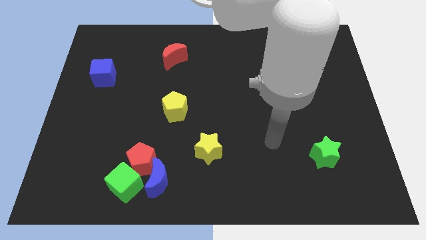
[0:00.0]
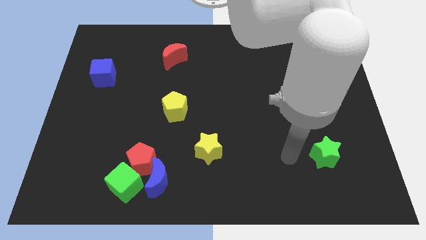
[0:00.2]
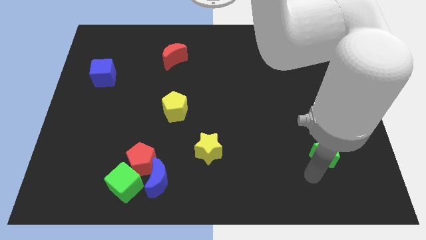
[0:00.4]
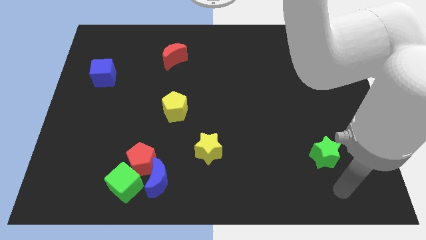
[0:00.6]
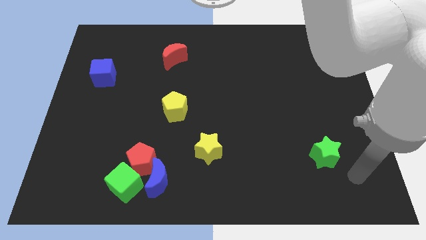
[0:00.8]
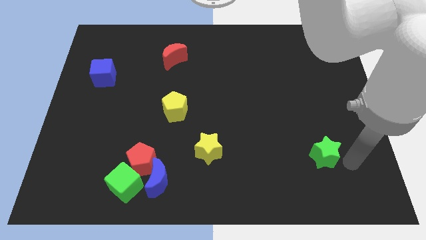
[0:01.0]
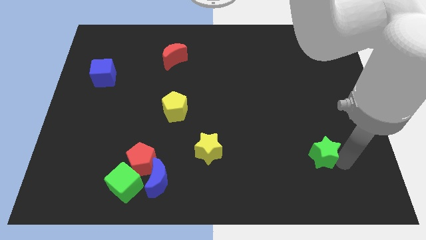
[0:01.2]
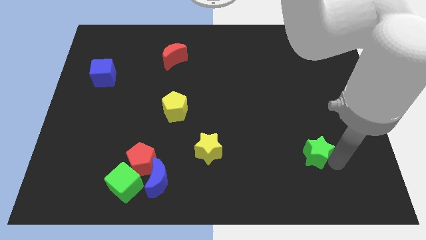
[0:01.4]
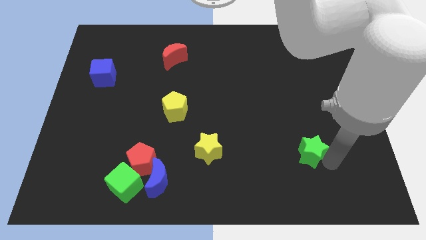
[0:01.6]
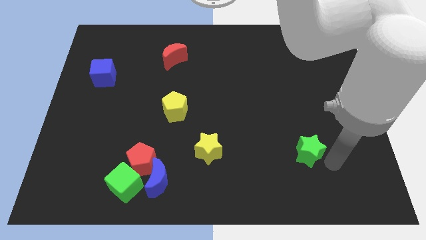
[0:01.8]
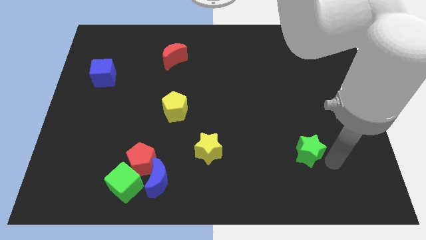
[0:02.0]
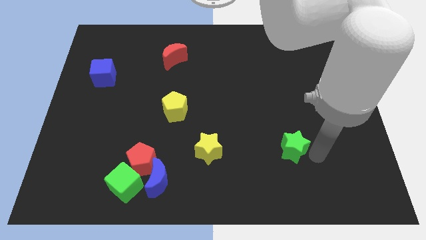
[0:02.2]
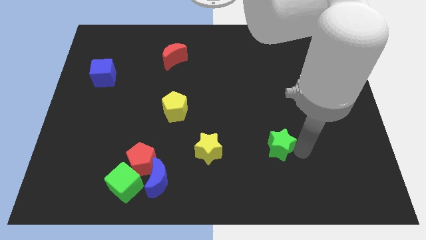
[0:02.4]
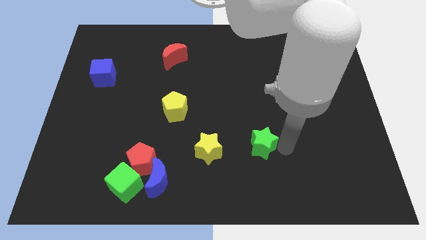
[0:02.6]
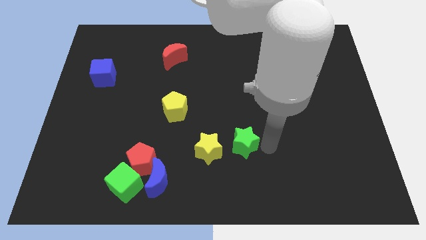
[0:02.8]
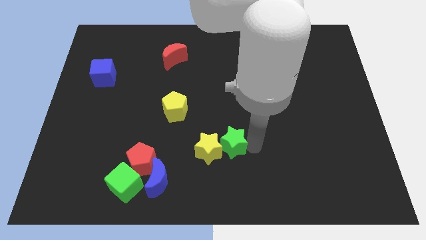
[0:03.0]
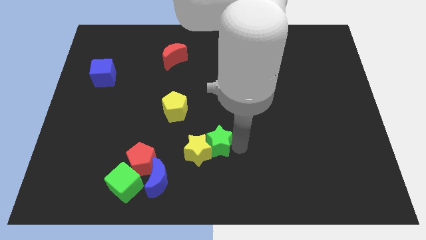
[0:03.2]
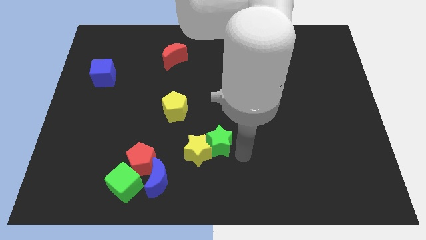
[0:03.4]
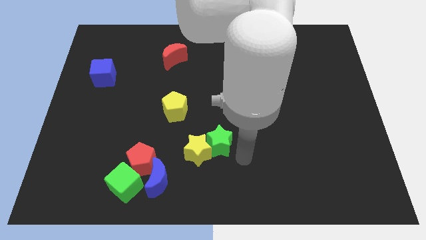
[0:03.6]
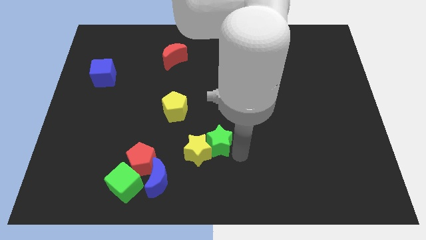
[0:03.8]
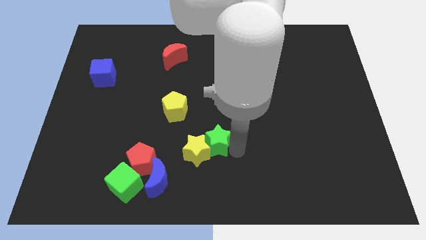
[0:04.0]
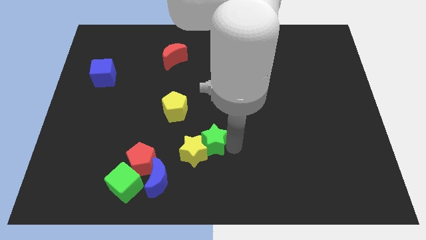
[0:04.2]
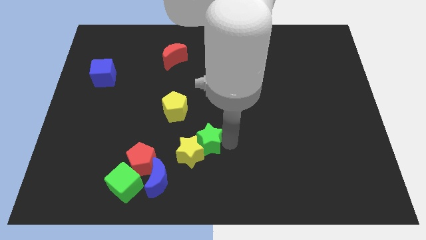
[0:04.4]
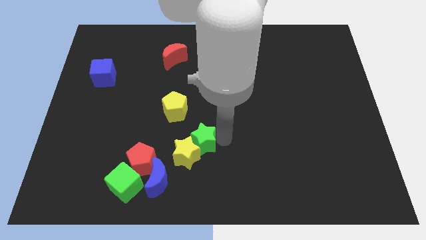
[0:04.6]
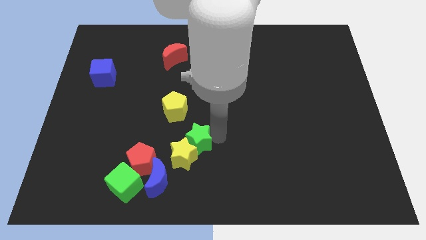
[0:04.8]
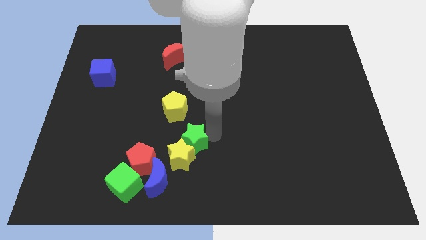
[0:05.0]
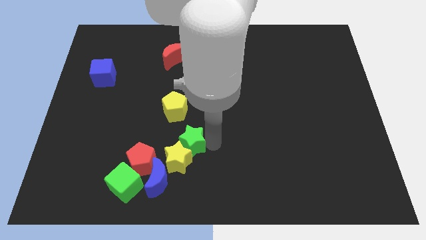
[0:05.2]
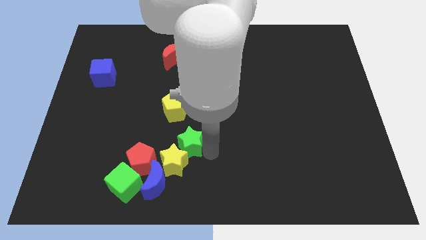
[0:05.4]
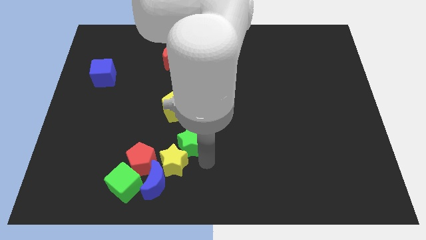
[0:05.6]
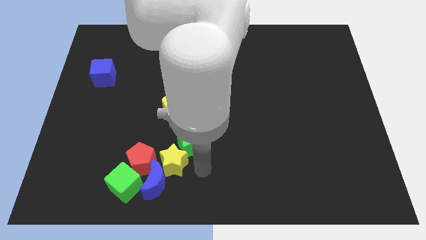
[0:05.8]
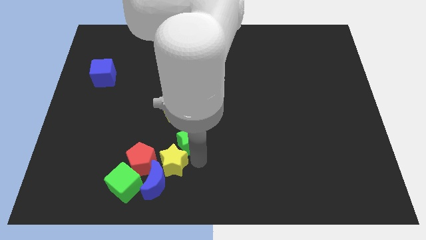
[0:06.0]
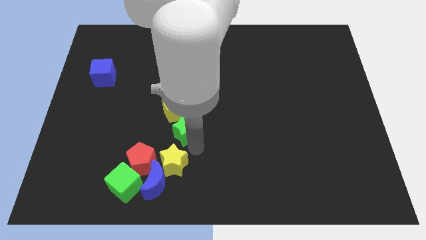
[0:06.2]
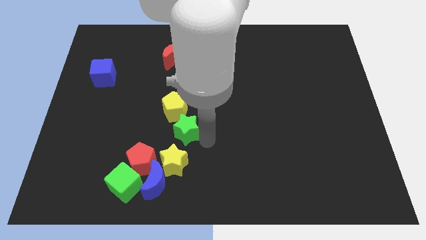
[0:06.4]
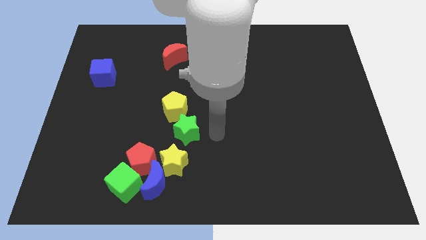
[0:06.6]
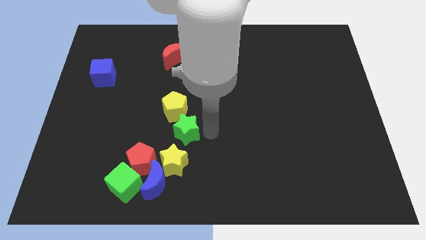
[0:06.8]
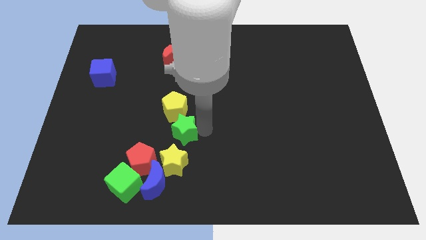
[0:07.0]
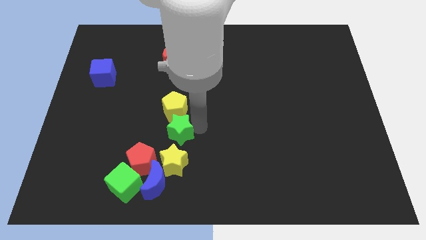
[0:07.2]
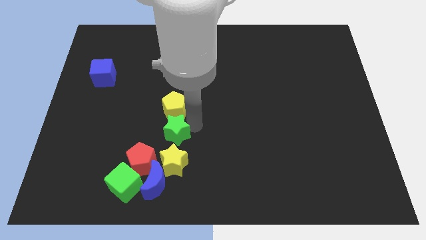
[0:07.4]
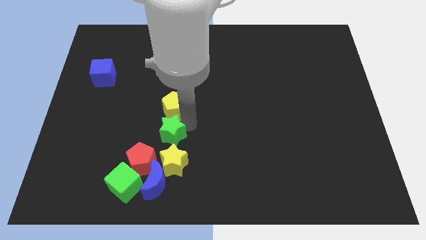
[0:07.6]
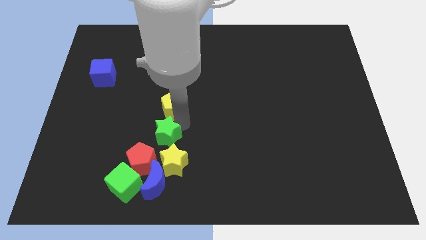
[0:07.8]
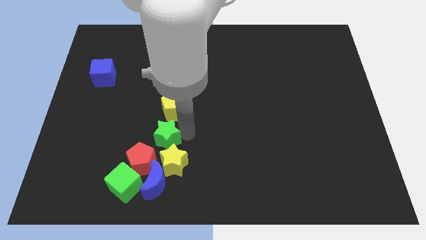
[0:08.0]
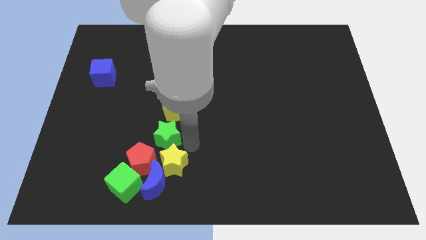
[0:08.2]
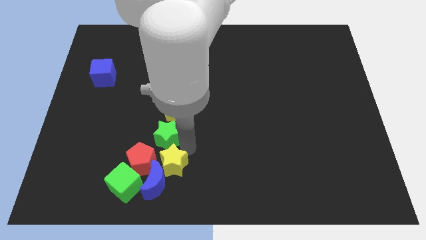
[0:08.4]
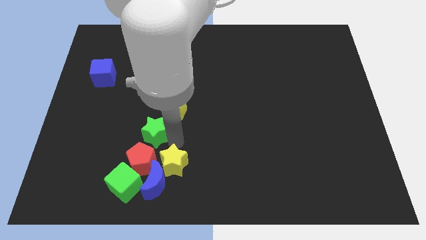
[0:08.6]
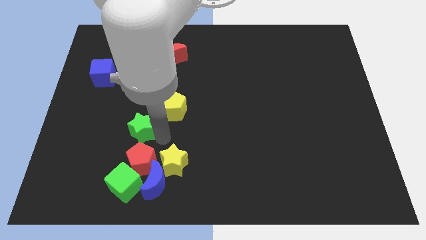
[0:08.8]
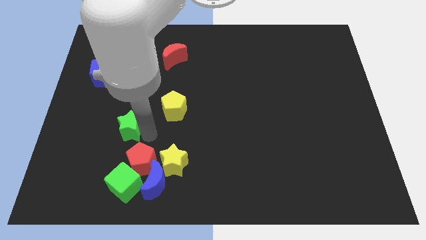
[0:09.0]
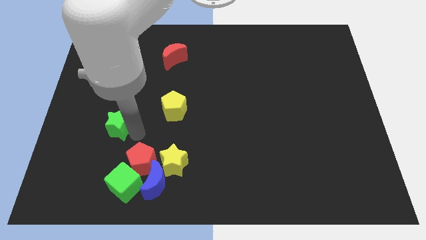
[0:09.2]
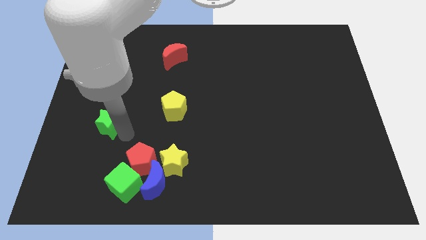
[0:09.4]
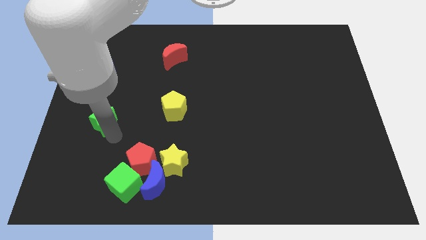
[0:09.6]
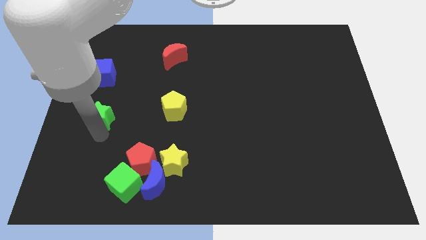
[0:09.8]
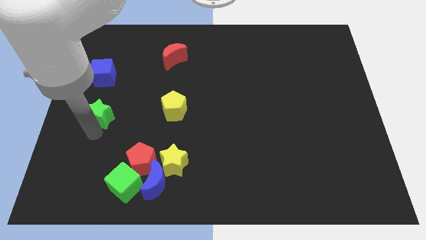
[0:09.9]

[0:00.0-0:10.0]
put the green star to the left side of the board

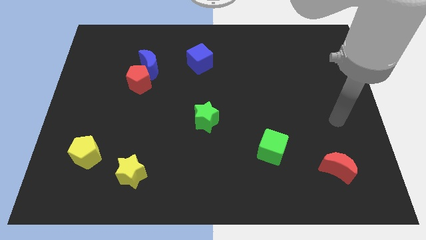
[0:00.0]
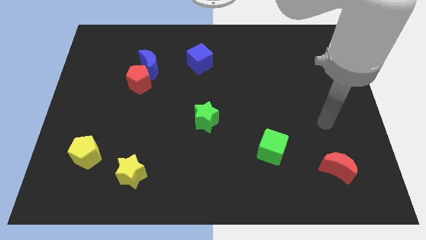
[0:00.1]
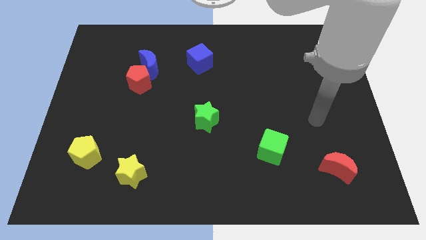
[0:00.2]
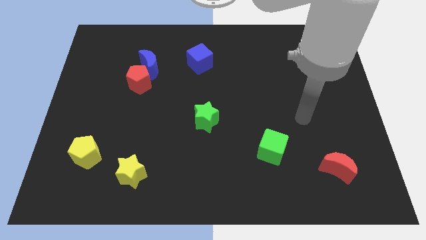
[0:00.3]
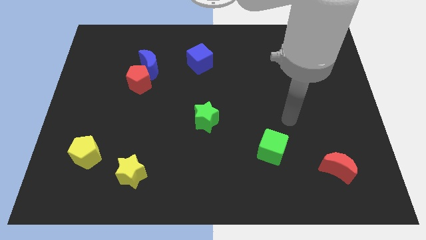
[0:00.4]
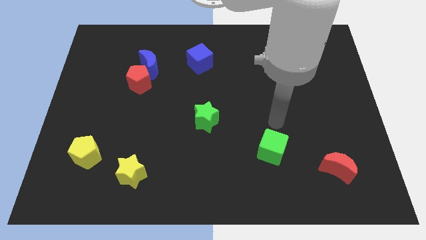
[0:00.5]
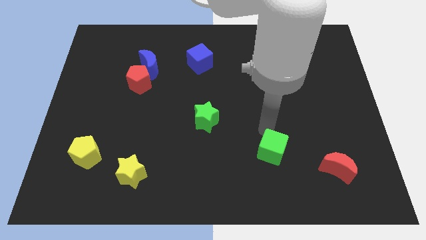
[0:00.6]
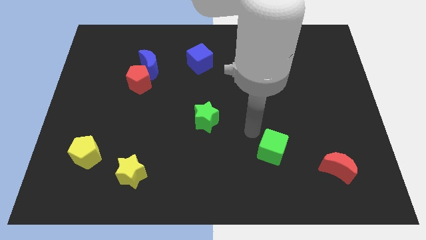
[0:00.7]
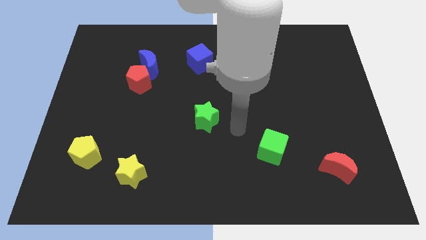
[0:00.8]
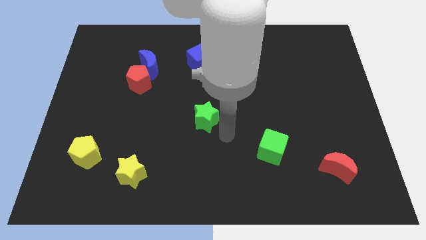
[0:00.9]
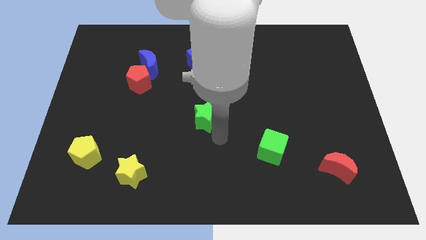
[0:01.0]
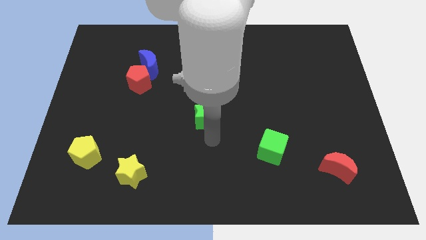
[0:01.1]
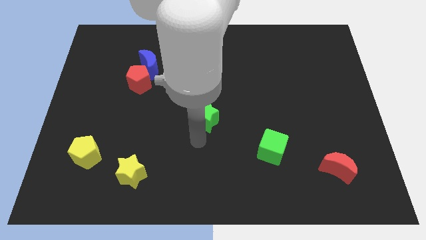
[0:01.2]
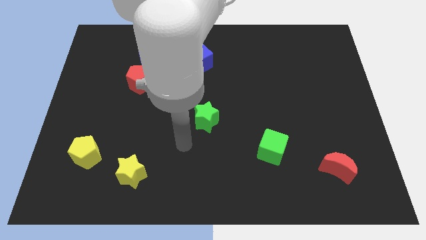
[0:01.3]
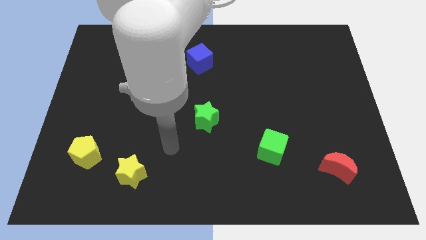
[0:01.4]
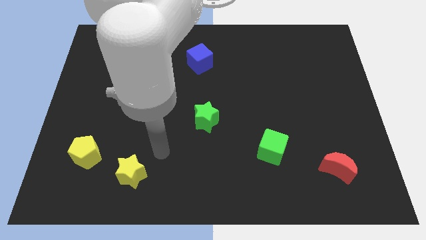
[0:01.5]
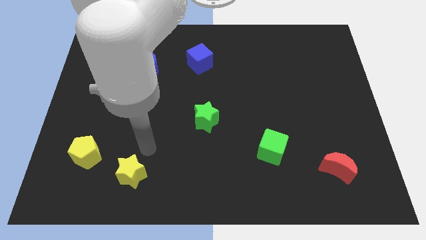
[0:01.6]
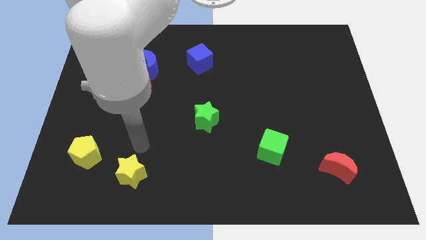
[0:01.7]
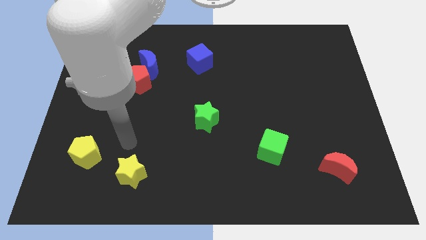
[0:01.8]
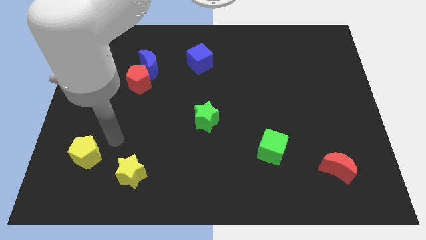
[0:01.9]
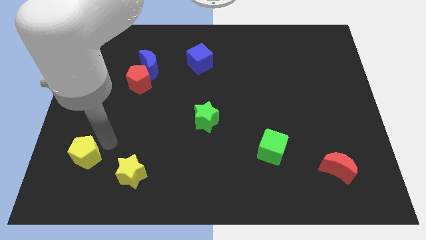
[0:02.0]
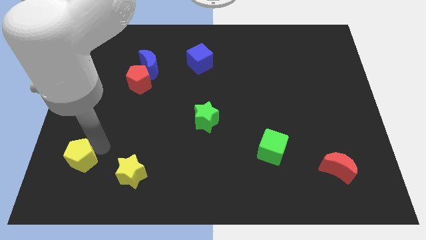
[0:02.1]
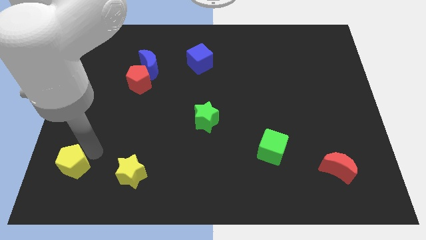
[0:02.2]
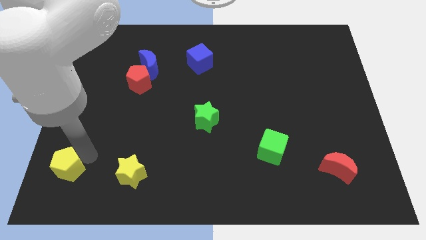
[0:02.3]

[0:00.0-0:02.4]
move the yellow pentagon to the bottom left corner
